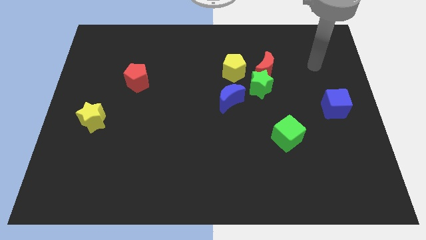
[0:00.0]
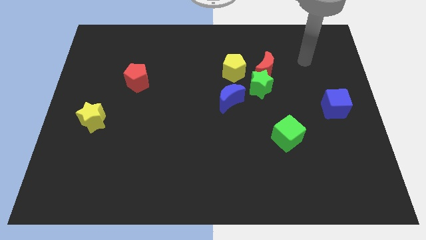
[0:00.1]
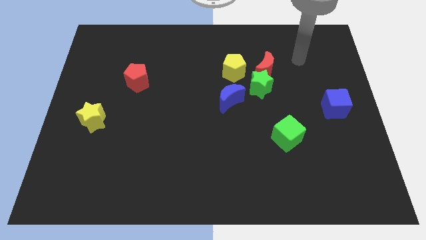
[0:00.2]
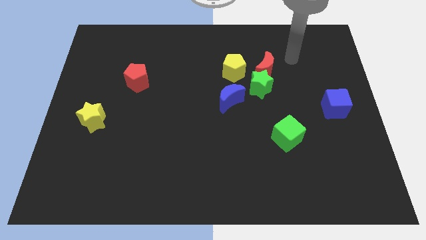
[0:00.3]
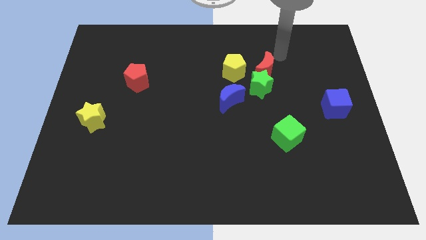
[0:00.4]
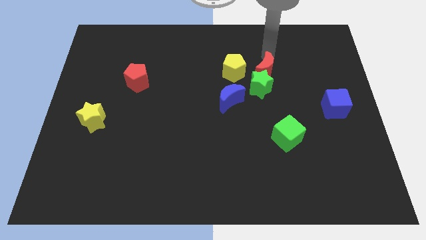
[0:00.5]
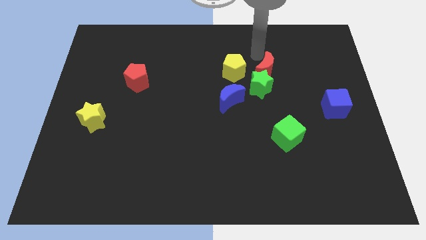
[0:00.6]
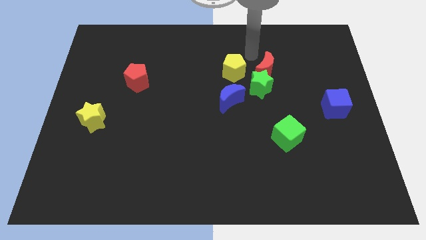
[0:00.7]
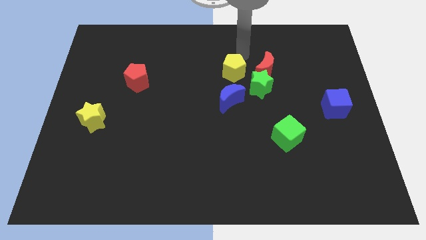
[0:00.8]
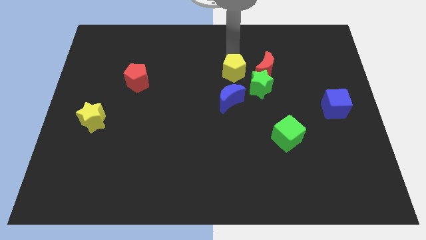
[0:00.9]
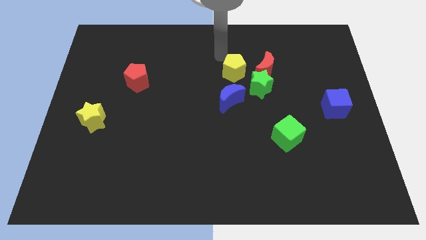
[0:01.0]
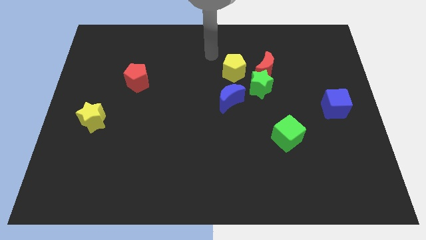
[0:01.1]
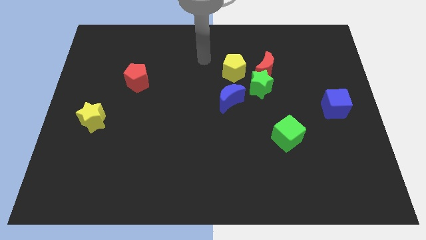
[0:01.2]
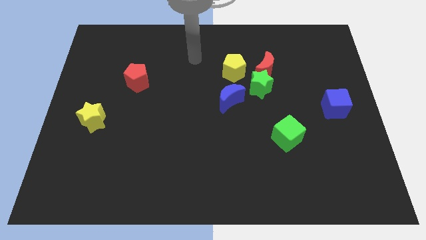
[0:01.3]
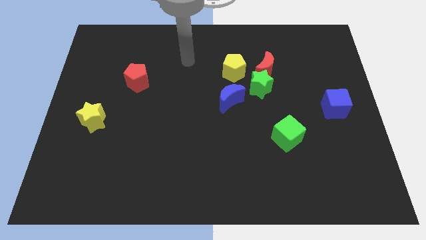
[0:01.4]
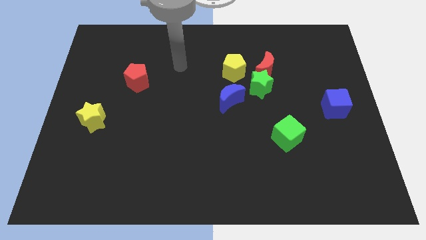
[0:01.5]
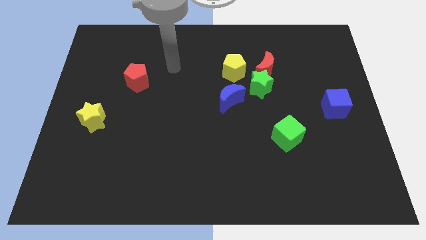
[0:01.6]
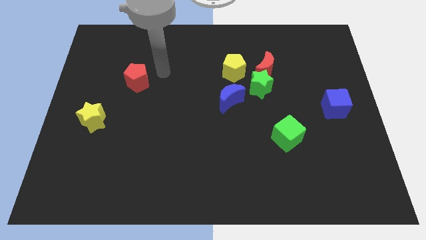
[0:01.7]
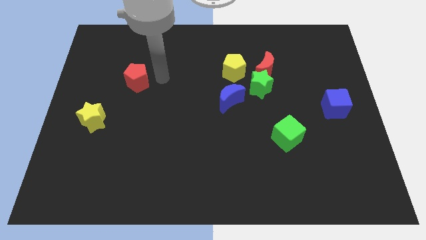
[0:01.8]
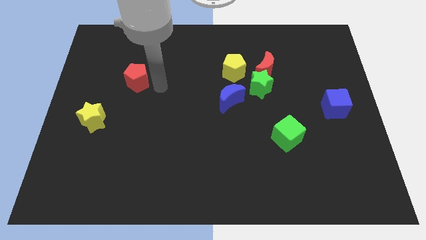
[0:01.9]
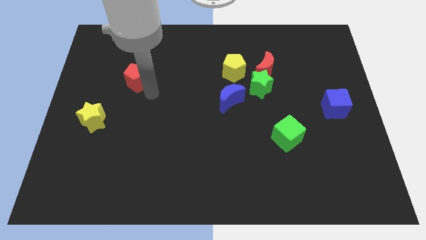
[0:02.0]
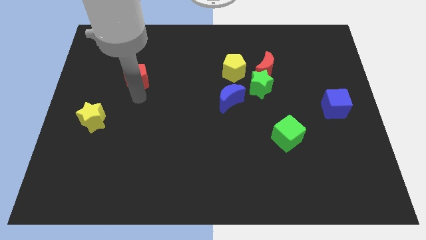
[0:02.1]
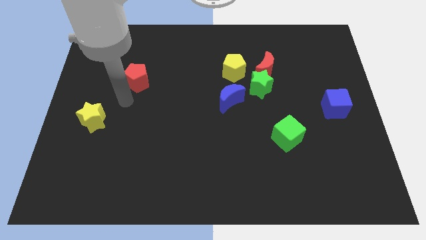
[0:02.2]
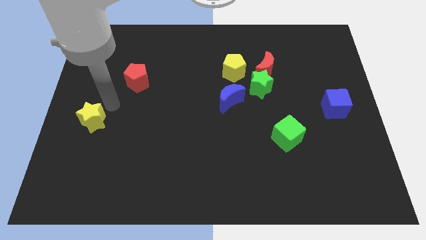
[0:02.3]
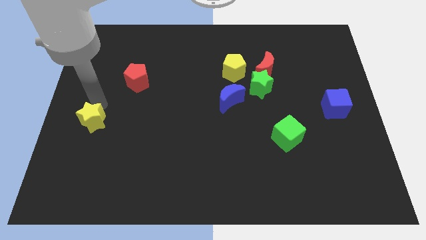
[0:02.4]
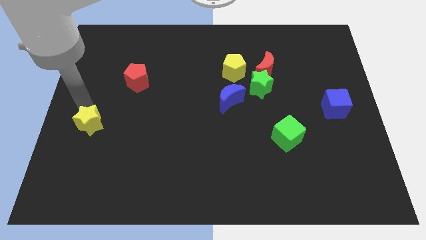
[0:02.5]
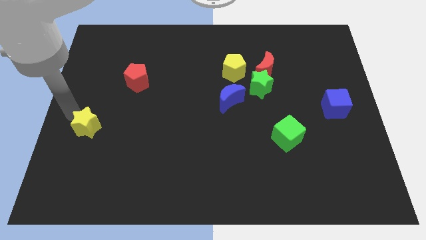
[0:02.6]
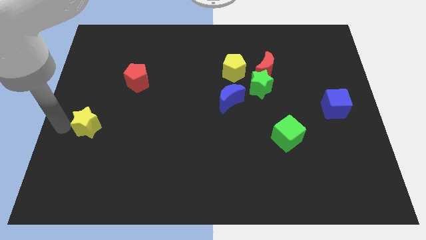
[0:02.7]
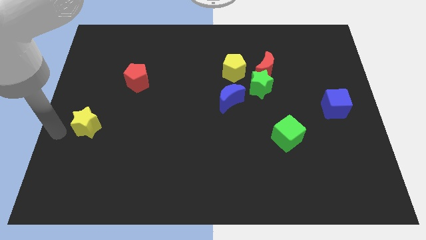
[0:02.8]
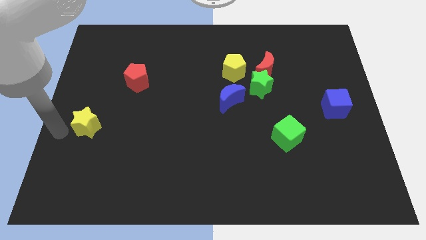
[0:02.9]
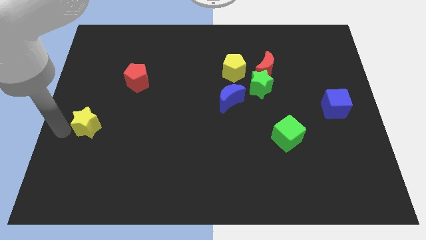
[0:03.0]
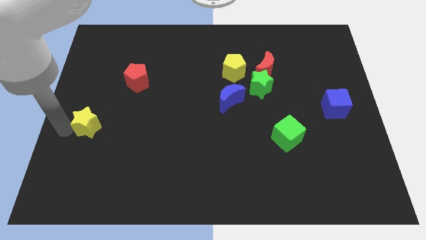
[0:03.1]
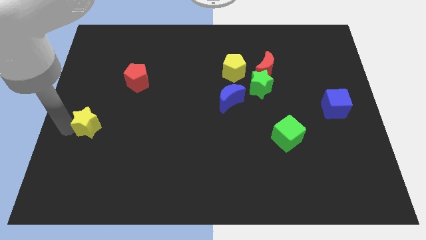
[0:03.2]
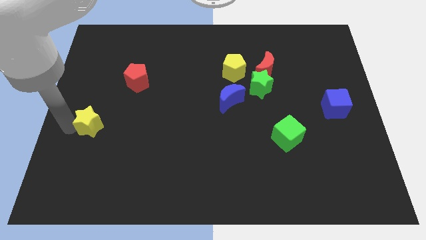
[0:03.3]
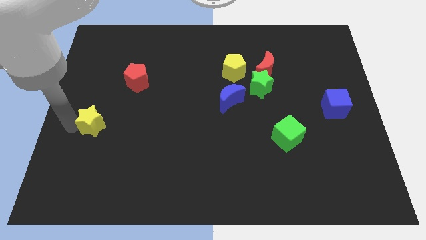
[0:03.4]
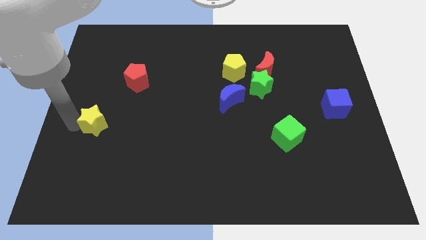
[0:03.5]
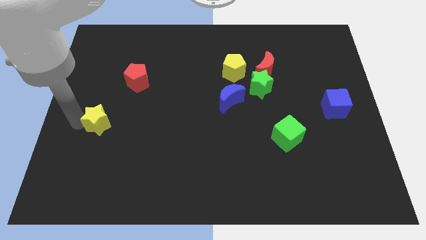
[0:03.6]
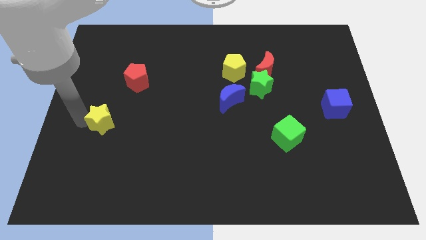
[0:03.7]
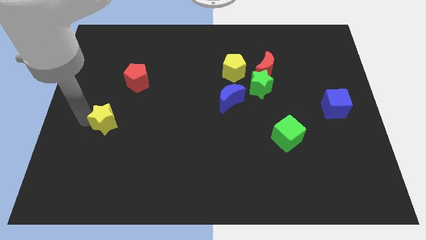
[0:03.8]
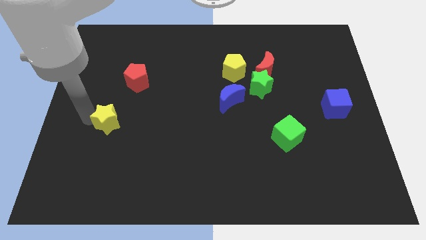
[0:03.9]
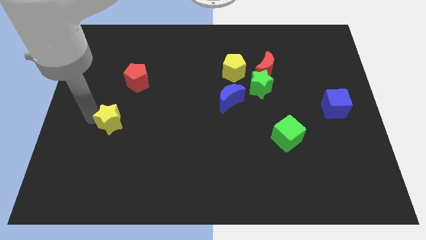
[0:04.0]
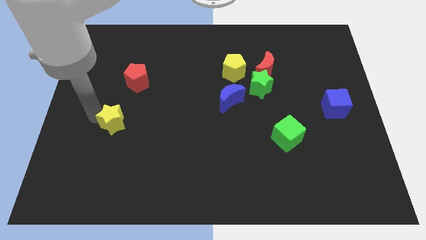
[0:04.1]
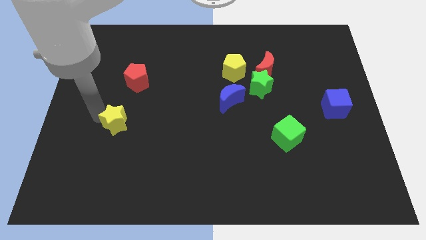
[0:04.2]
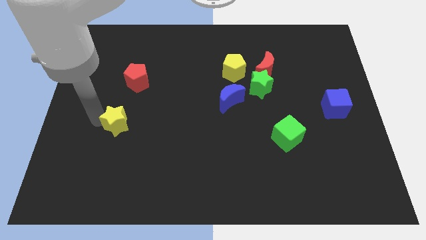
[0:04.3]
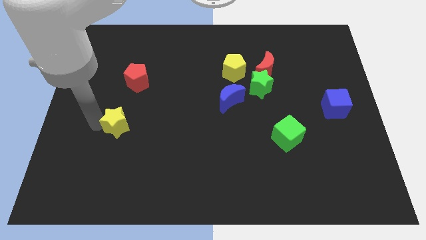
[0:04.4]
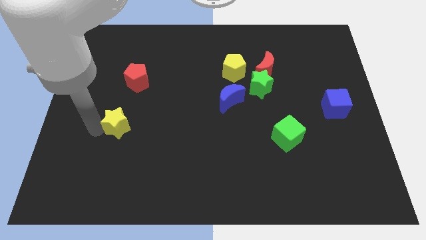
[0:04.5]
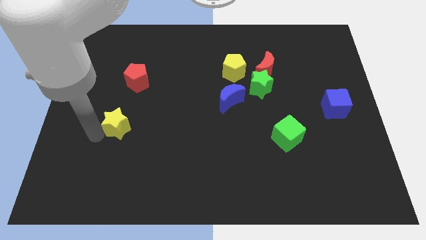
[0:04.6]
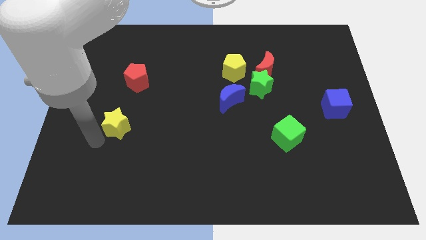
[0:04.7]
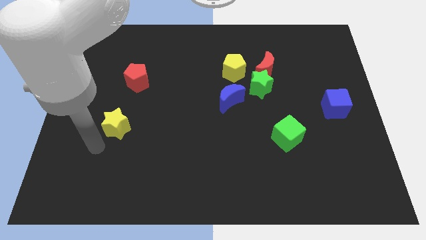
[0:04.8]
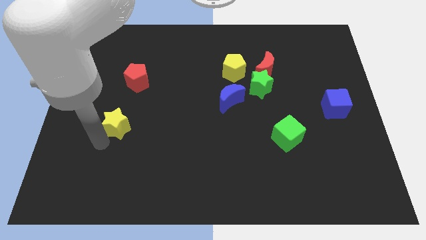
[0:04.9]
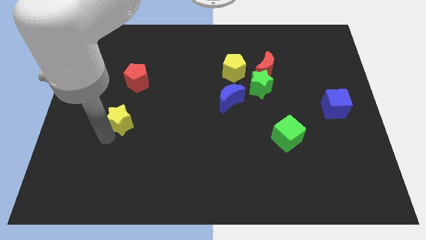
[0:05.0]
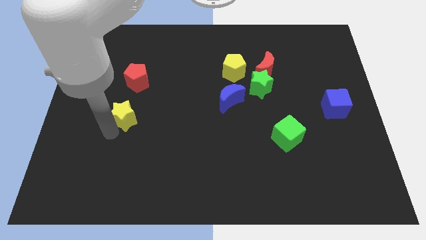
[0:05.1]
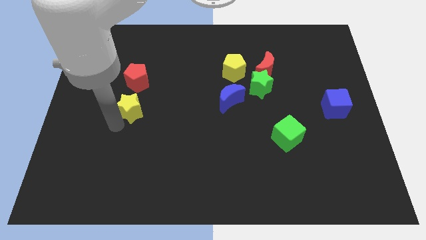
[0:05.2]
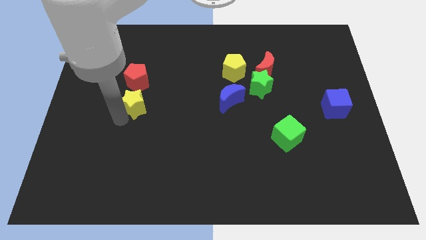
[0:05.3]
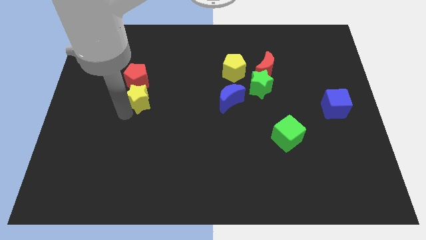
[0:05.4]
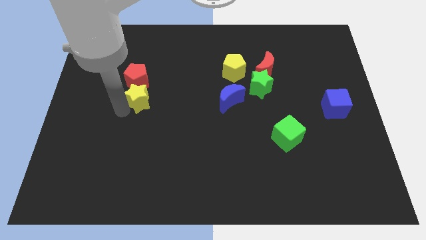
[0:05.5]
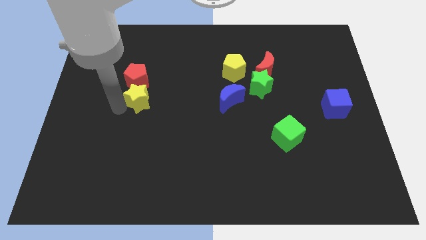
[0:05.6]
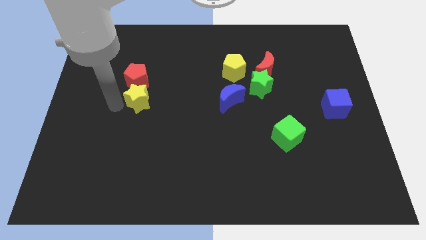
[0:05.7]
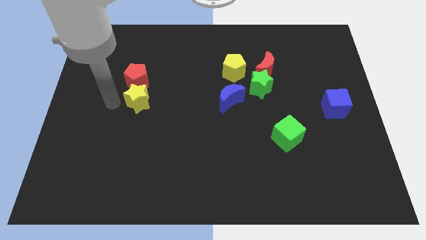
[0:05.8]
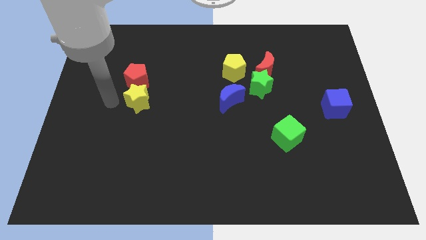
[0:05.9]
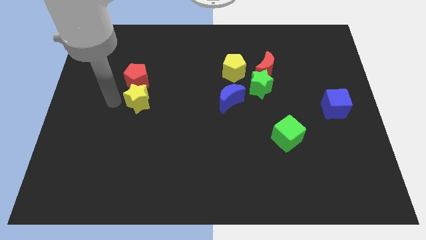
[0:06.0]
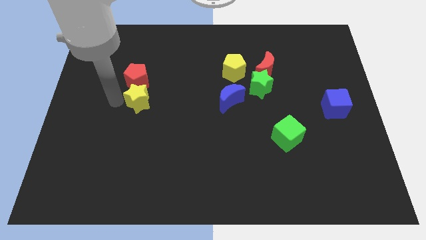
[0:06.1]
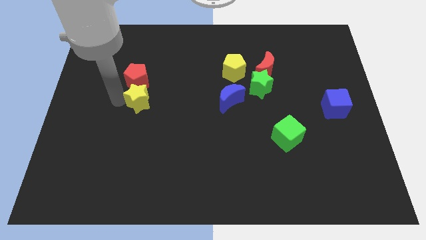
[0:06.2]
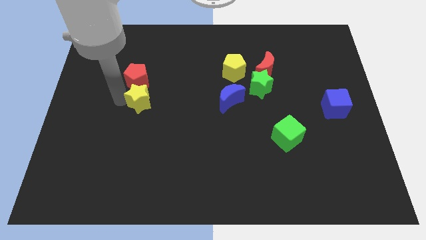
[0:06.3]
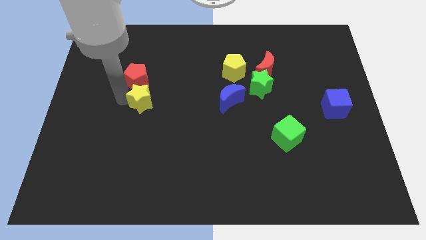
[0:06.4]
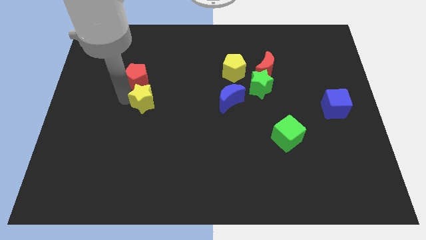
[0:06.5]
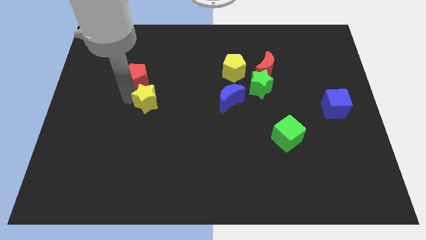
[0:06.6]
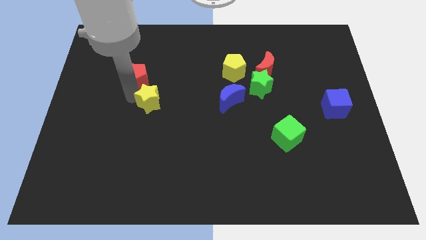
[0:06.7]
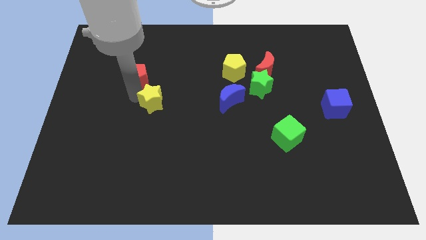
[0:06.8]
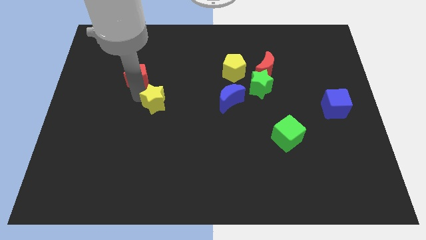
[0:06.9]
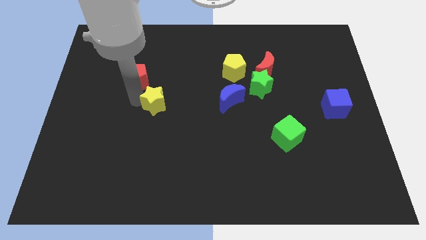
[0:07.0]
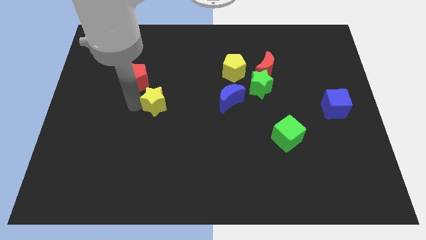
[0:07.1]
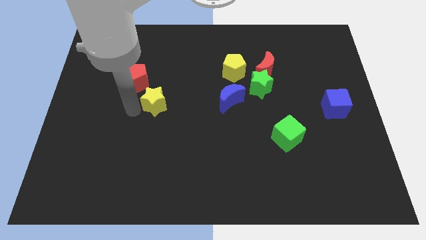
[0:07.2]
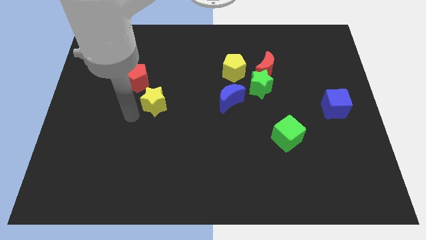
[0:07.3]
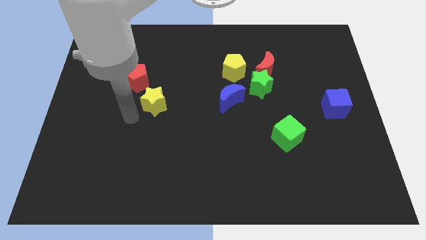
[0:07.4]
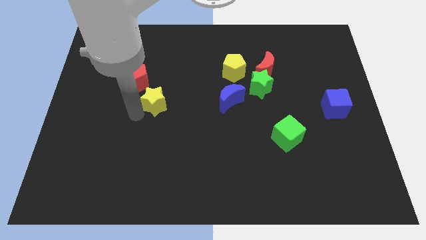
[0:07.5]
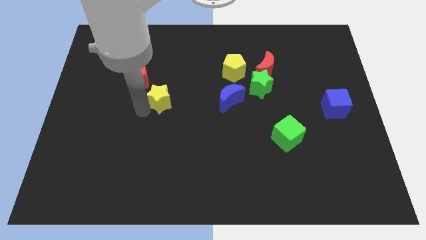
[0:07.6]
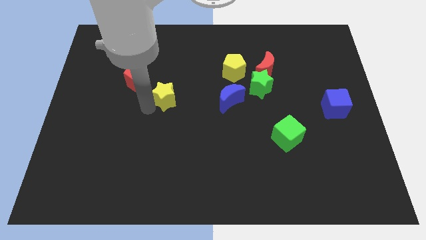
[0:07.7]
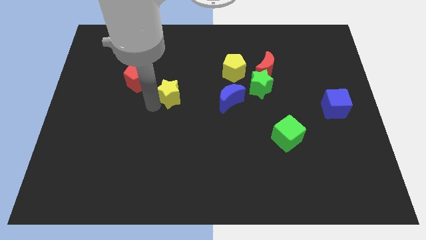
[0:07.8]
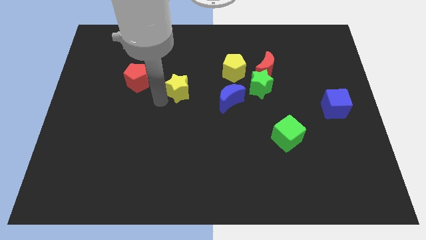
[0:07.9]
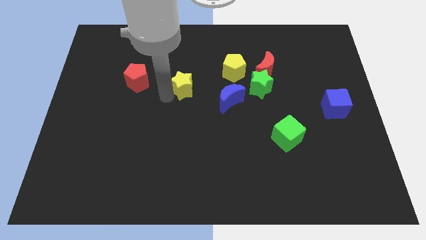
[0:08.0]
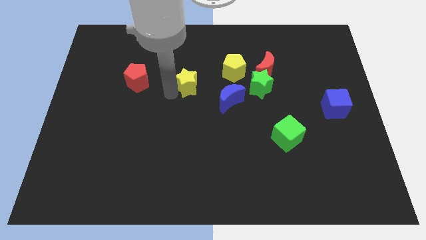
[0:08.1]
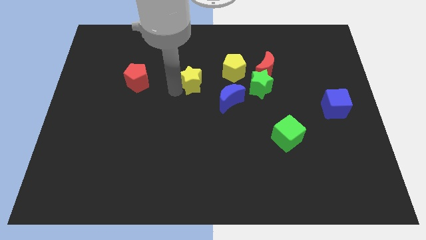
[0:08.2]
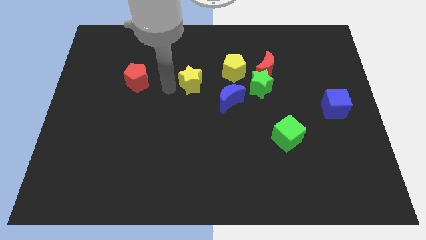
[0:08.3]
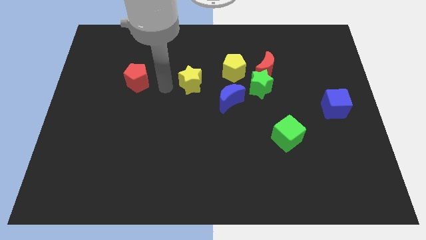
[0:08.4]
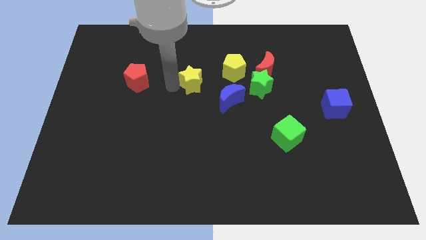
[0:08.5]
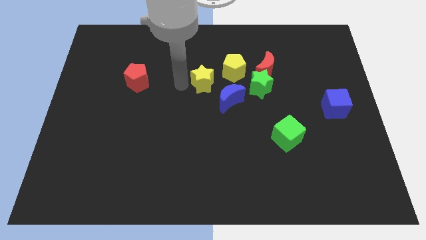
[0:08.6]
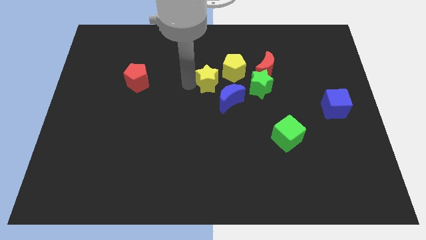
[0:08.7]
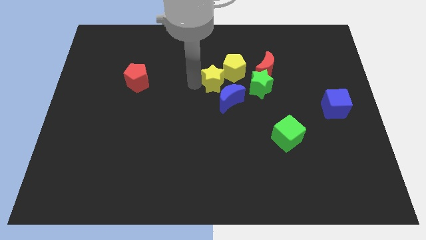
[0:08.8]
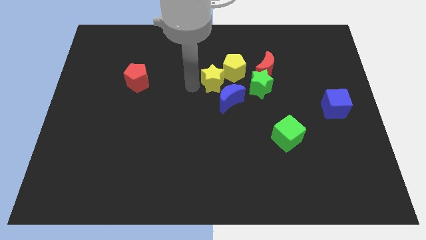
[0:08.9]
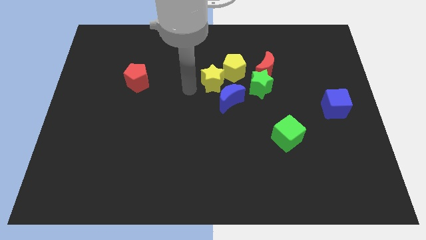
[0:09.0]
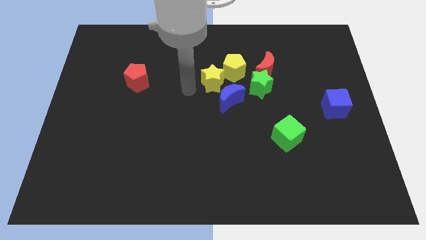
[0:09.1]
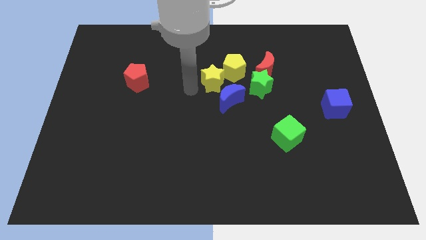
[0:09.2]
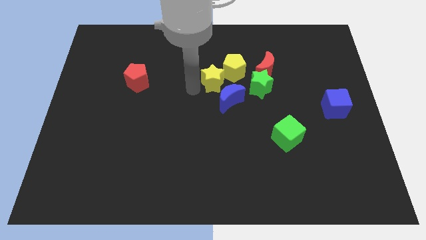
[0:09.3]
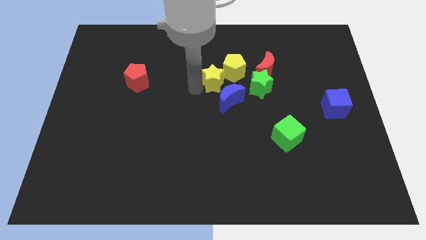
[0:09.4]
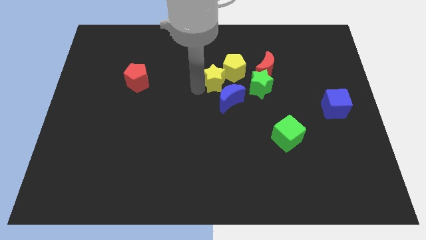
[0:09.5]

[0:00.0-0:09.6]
move the yellow star to the yellow pentagon
